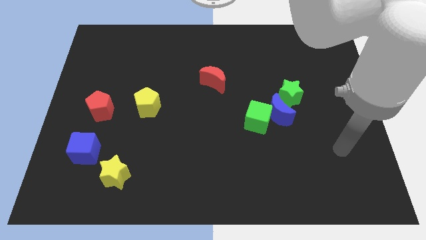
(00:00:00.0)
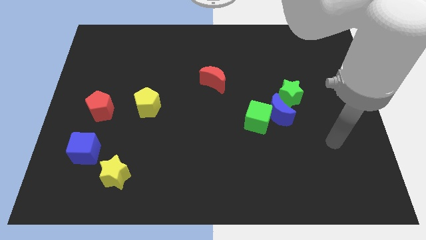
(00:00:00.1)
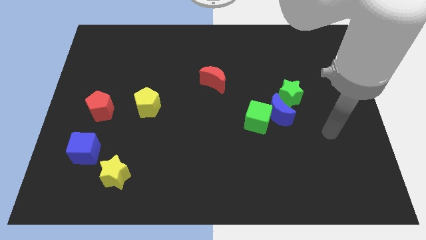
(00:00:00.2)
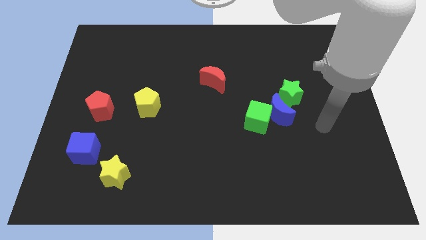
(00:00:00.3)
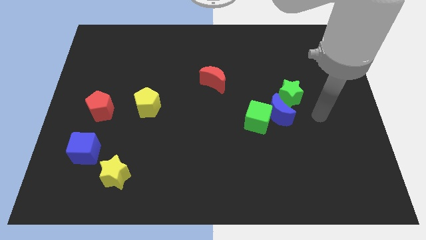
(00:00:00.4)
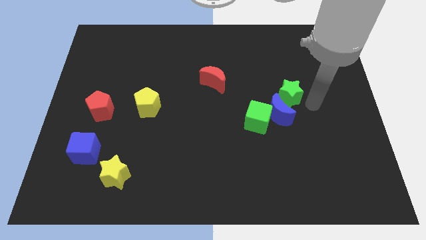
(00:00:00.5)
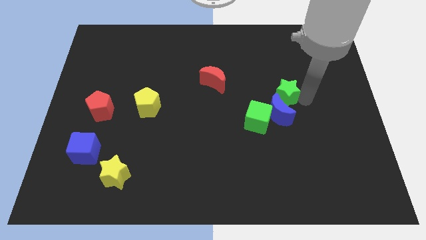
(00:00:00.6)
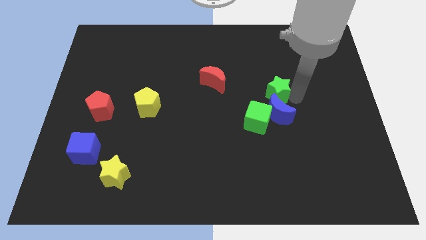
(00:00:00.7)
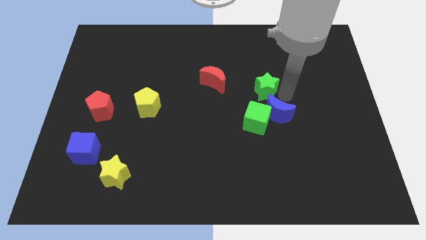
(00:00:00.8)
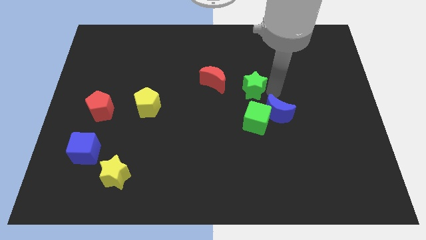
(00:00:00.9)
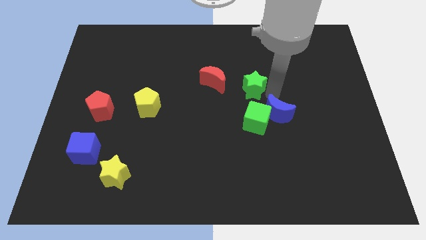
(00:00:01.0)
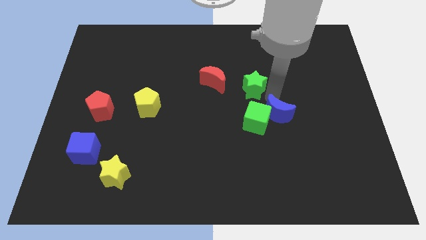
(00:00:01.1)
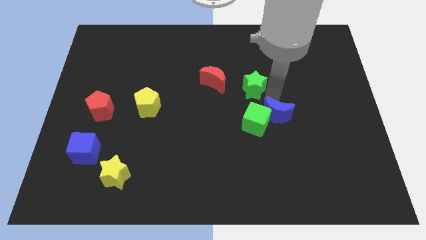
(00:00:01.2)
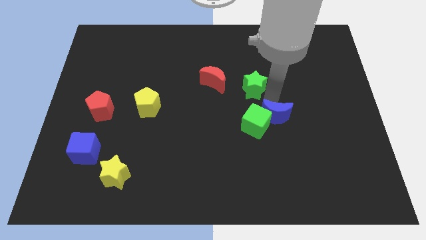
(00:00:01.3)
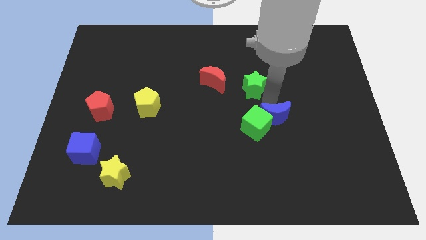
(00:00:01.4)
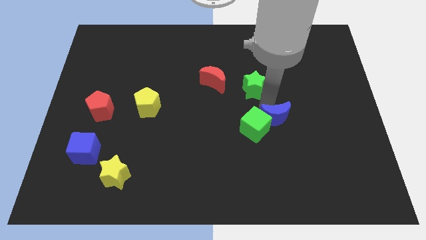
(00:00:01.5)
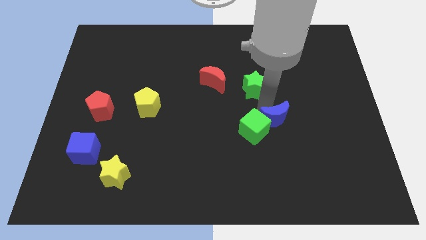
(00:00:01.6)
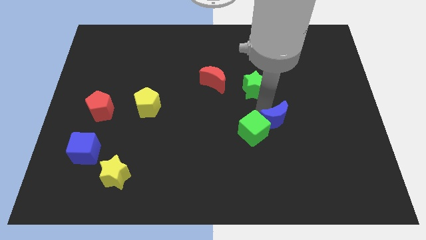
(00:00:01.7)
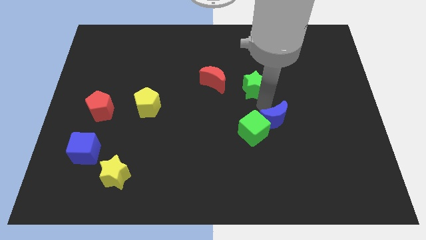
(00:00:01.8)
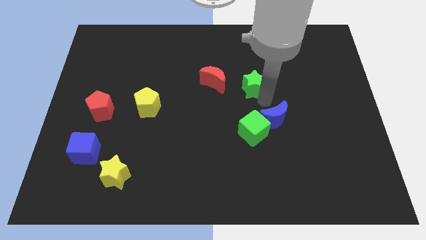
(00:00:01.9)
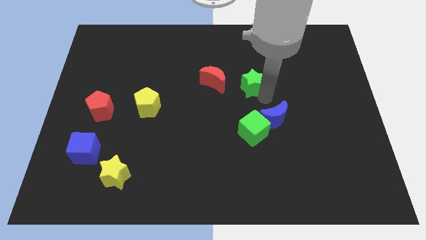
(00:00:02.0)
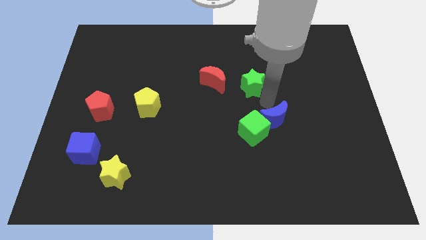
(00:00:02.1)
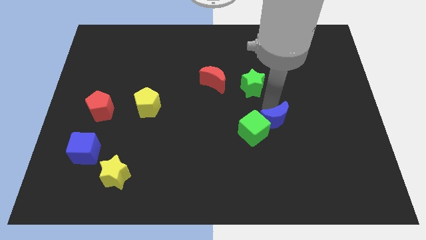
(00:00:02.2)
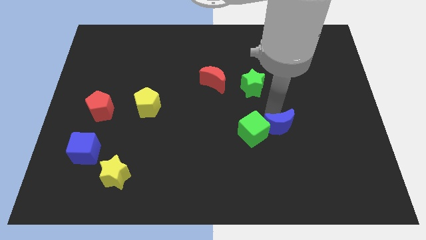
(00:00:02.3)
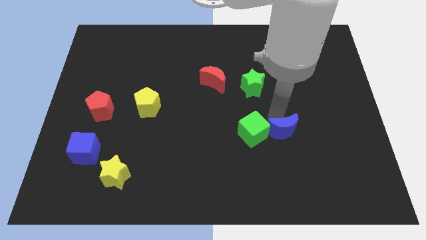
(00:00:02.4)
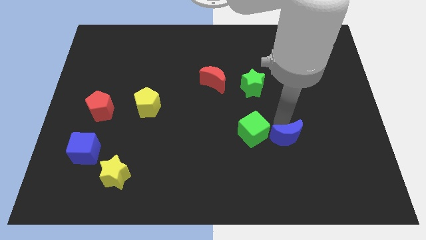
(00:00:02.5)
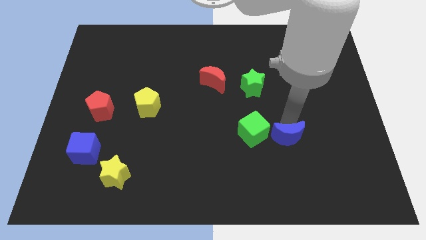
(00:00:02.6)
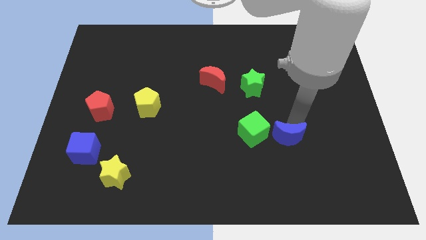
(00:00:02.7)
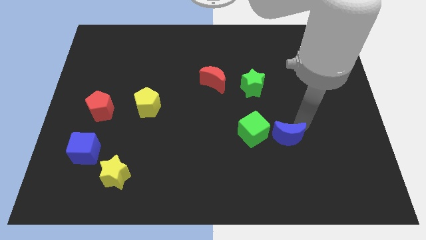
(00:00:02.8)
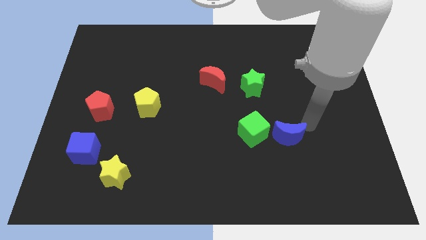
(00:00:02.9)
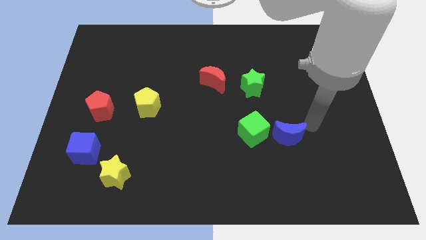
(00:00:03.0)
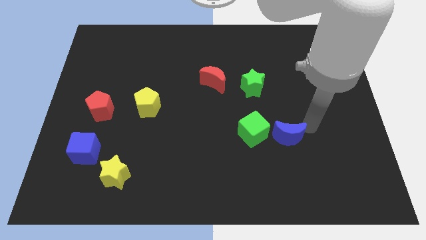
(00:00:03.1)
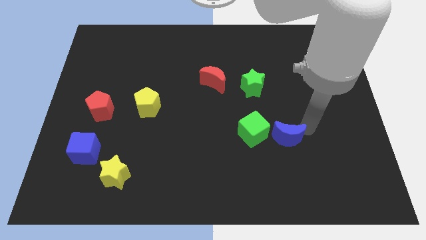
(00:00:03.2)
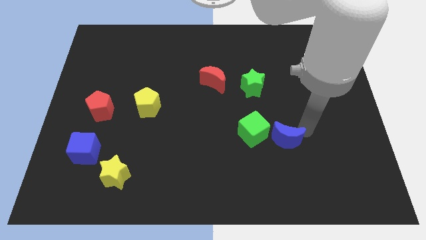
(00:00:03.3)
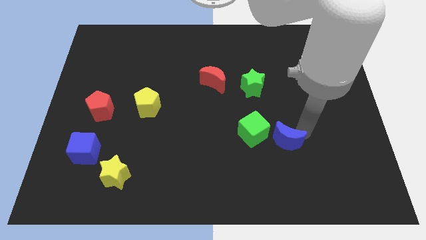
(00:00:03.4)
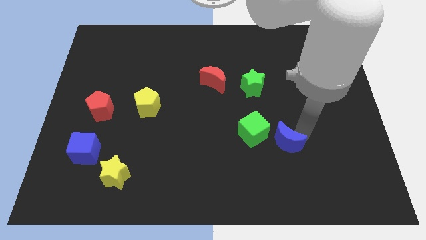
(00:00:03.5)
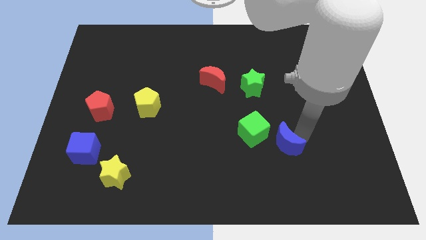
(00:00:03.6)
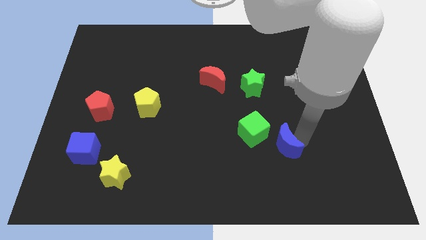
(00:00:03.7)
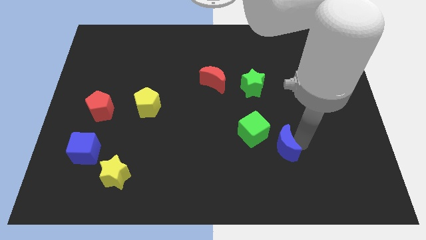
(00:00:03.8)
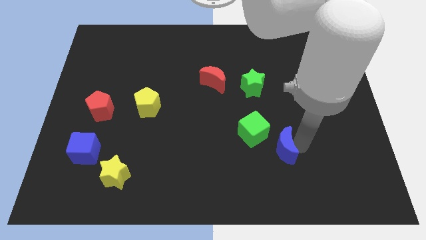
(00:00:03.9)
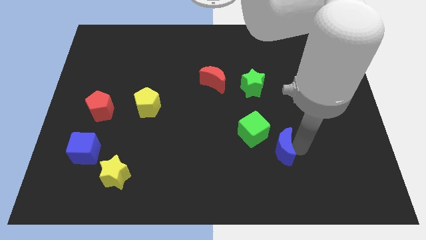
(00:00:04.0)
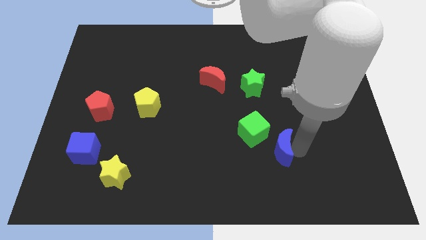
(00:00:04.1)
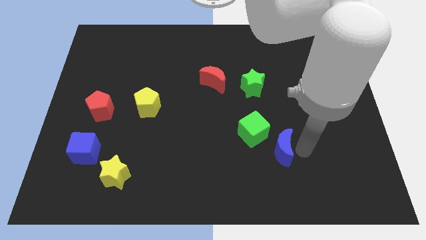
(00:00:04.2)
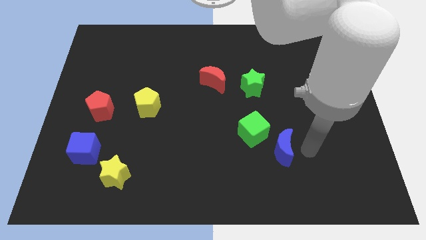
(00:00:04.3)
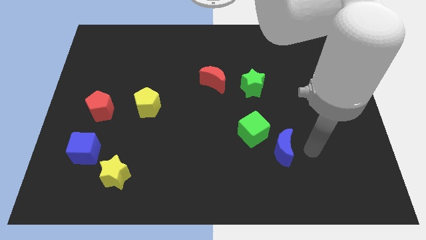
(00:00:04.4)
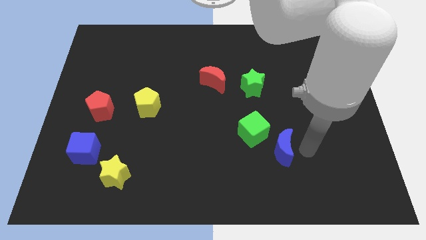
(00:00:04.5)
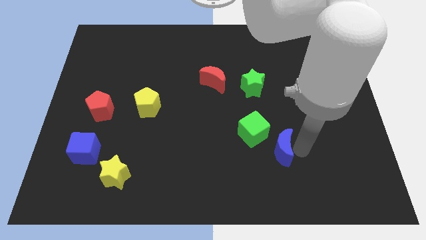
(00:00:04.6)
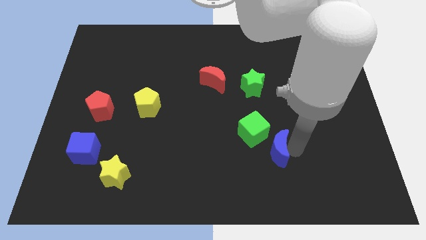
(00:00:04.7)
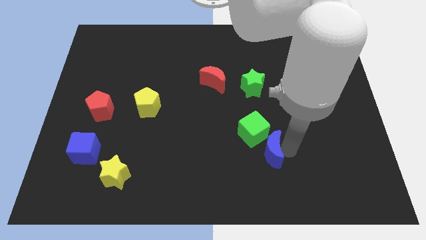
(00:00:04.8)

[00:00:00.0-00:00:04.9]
slightly slide the blue moon diagonally downwards and left

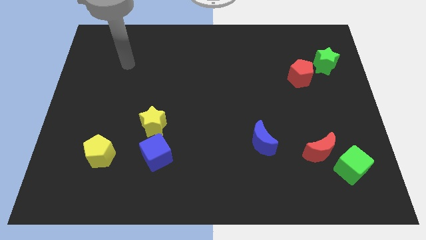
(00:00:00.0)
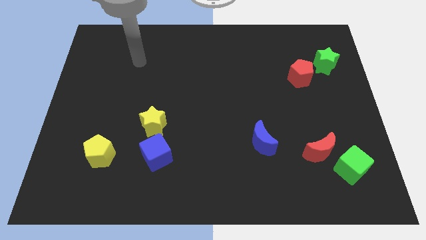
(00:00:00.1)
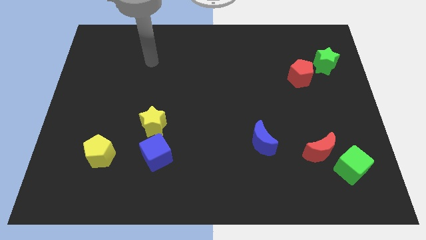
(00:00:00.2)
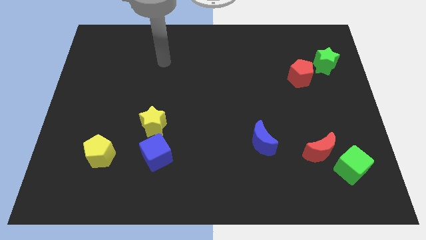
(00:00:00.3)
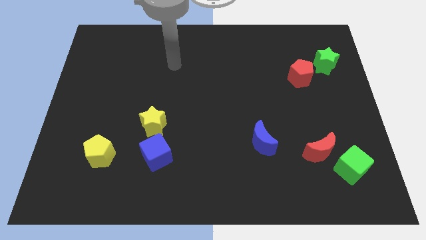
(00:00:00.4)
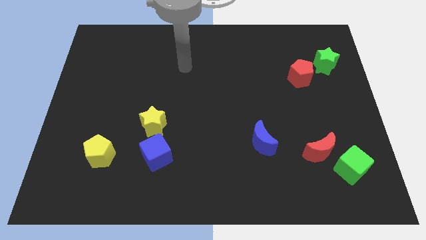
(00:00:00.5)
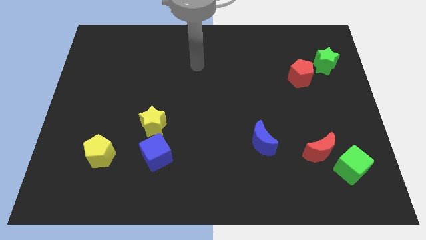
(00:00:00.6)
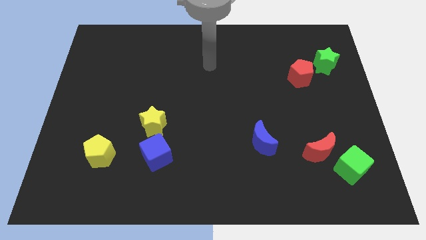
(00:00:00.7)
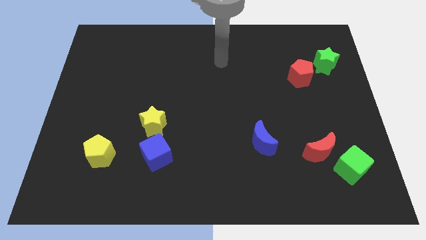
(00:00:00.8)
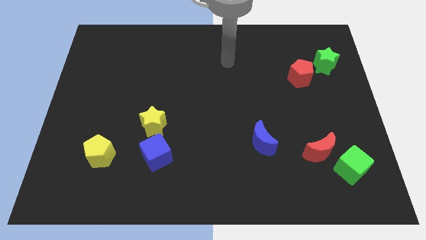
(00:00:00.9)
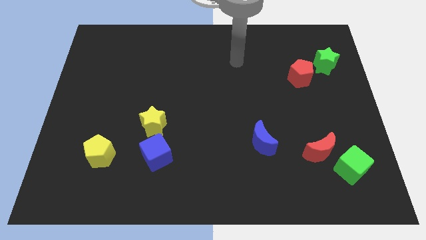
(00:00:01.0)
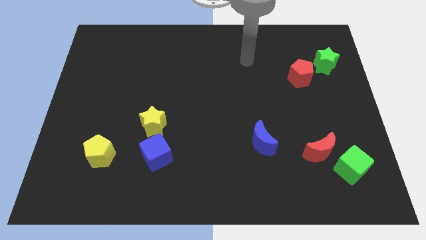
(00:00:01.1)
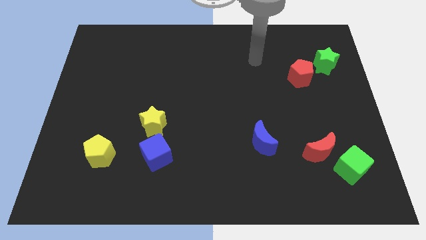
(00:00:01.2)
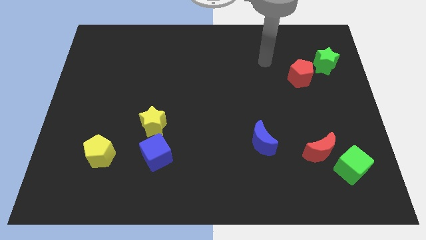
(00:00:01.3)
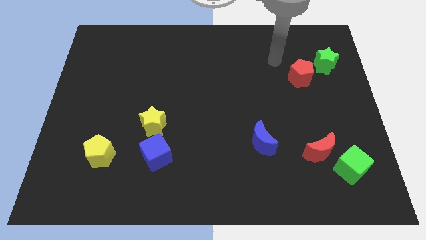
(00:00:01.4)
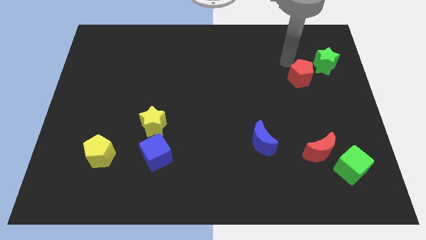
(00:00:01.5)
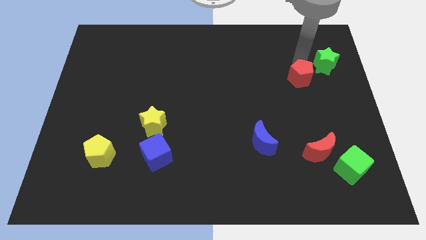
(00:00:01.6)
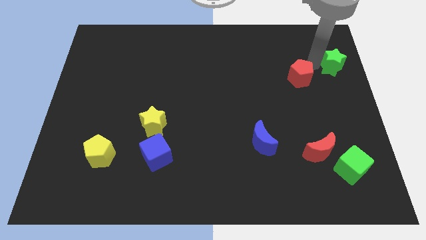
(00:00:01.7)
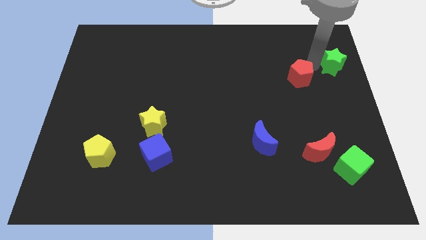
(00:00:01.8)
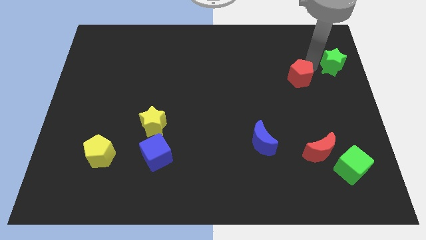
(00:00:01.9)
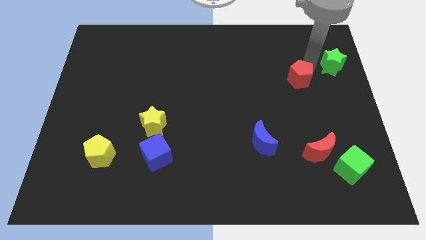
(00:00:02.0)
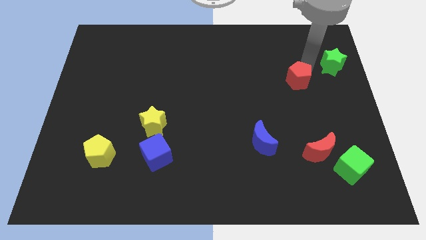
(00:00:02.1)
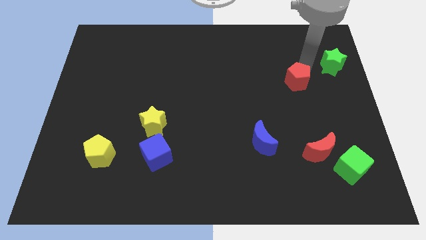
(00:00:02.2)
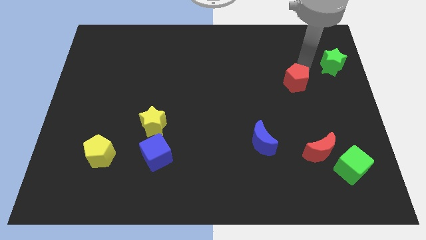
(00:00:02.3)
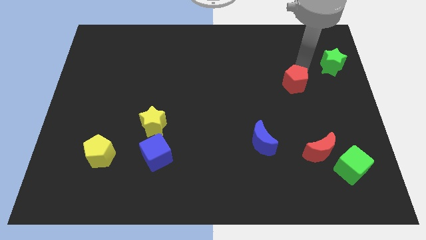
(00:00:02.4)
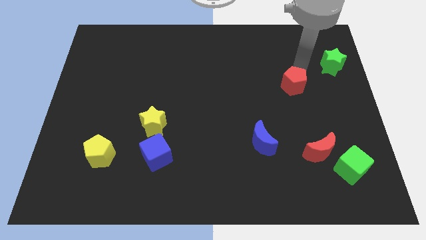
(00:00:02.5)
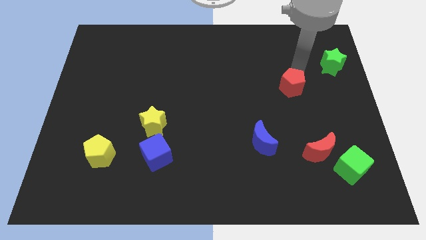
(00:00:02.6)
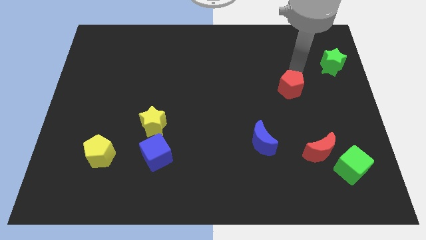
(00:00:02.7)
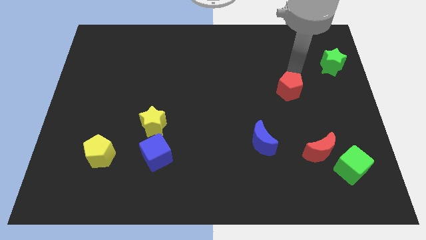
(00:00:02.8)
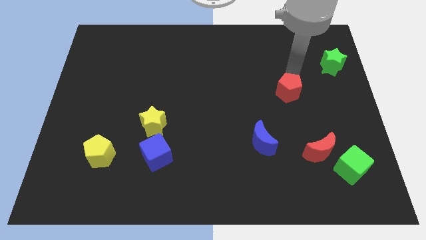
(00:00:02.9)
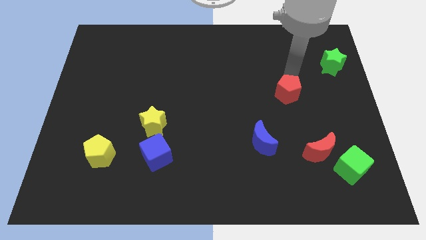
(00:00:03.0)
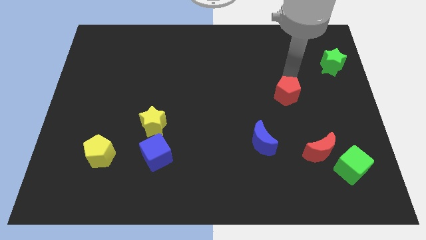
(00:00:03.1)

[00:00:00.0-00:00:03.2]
move the red pentagon downwards and left diagonally slightly

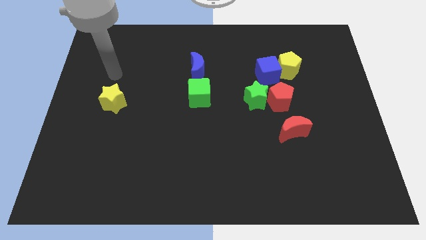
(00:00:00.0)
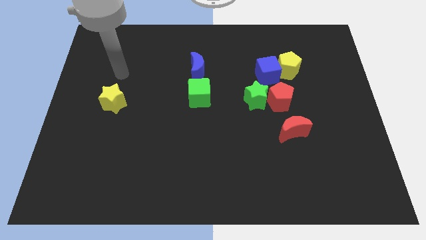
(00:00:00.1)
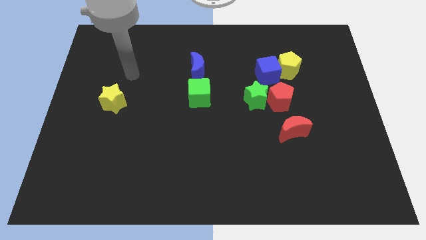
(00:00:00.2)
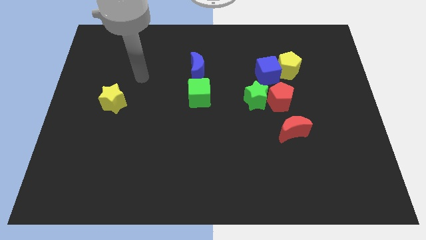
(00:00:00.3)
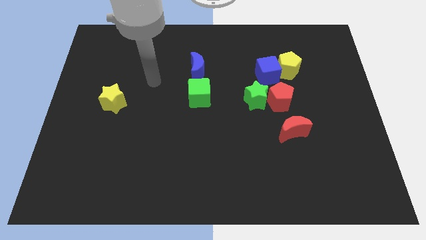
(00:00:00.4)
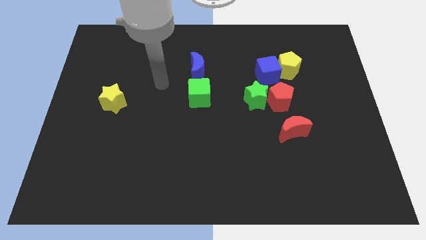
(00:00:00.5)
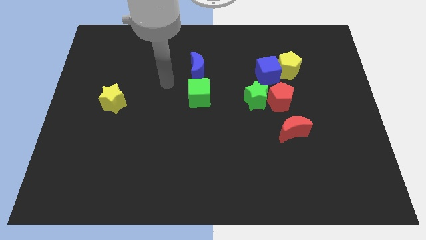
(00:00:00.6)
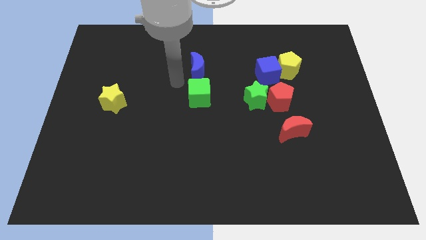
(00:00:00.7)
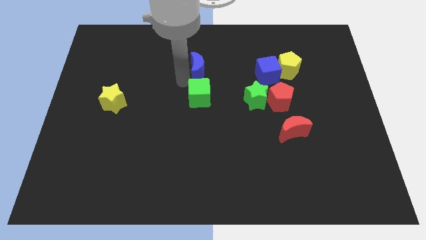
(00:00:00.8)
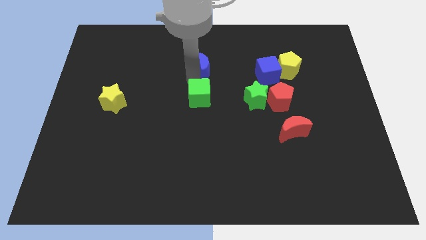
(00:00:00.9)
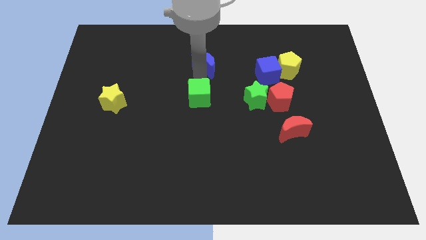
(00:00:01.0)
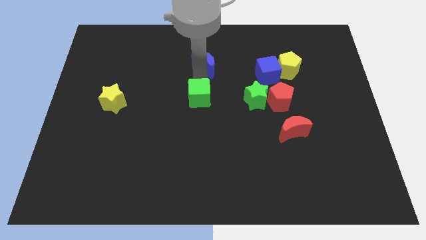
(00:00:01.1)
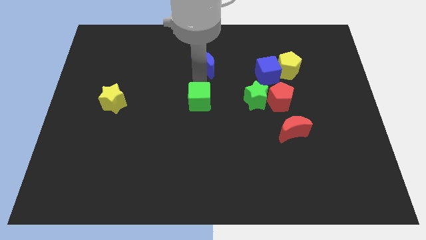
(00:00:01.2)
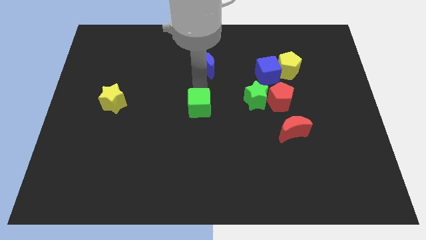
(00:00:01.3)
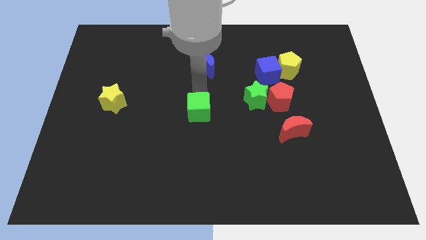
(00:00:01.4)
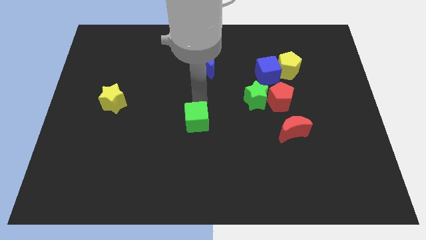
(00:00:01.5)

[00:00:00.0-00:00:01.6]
slightly slide the green cube down
